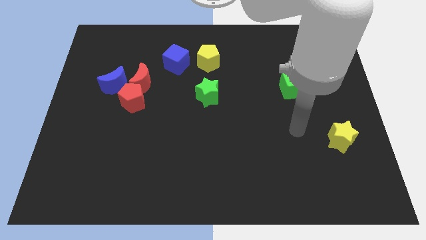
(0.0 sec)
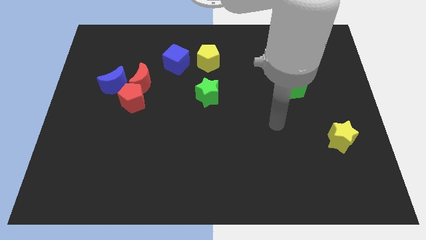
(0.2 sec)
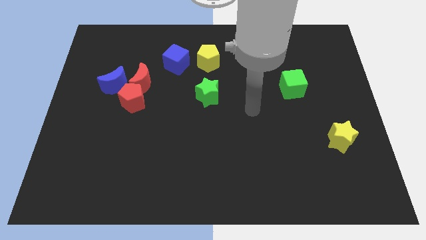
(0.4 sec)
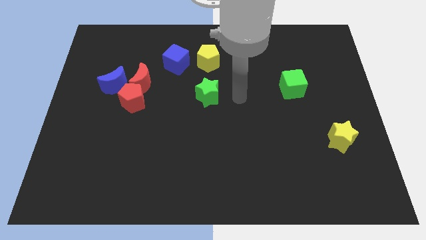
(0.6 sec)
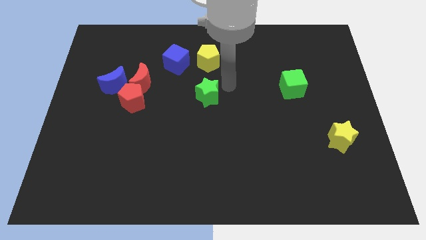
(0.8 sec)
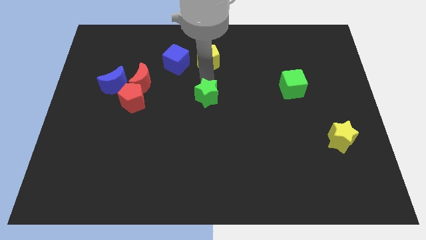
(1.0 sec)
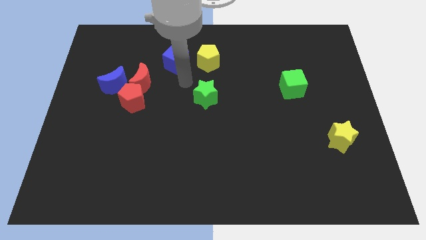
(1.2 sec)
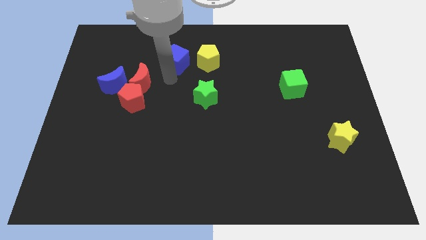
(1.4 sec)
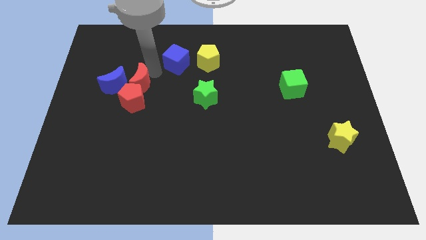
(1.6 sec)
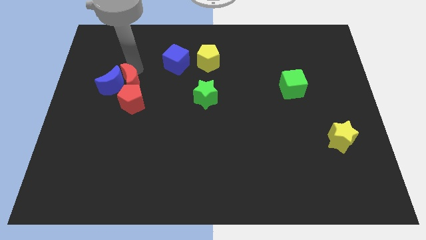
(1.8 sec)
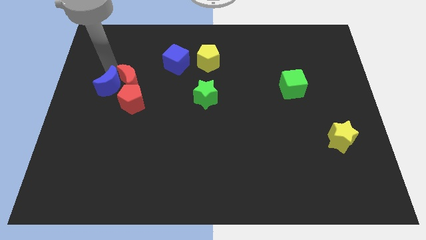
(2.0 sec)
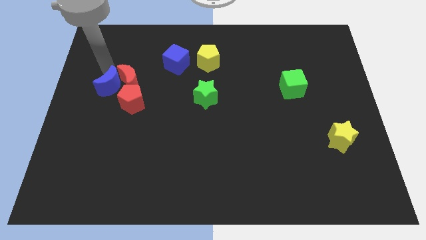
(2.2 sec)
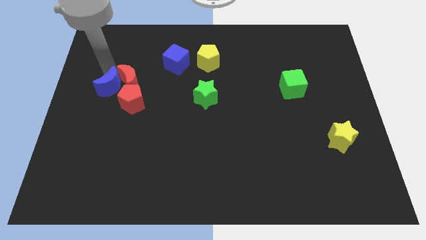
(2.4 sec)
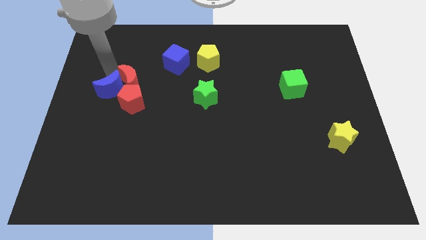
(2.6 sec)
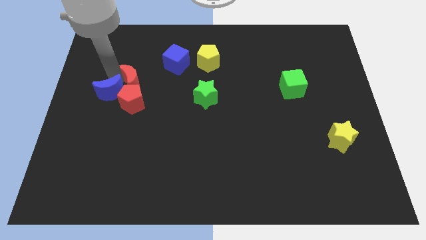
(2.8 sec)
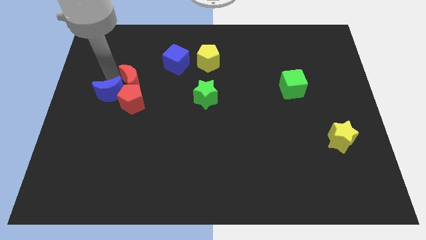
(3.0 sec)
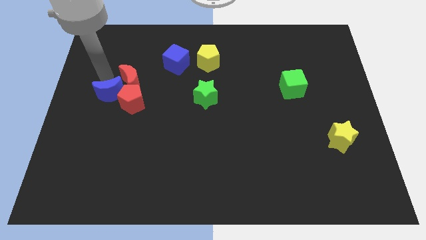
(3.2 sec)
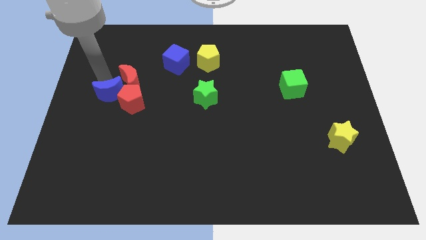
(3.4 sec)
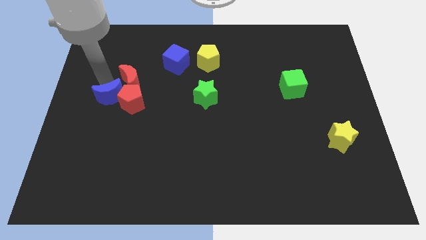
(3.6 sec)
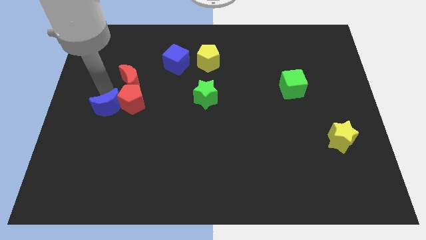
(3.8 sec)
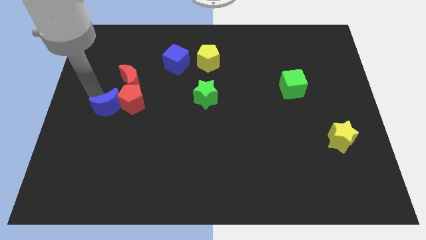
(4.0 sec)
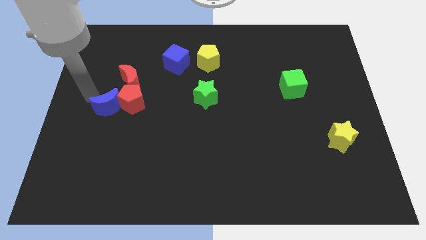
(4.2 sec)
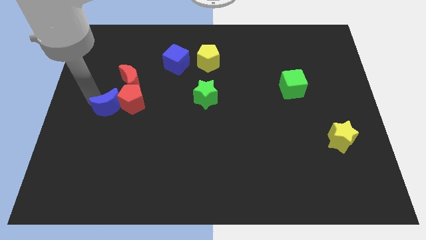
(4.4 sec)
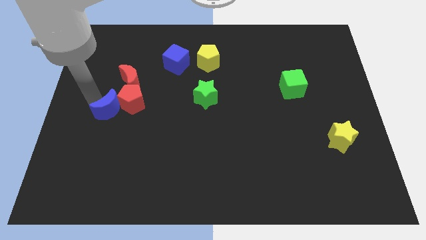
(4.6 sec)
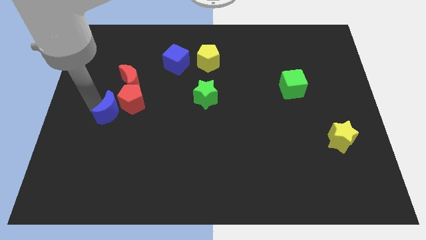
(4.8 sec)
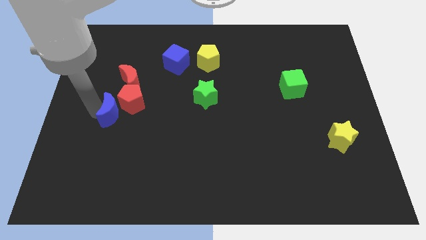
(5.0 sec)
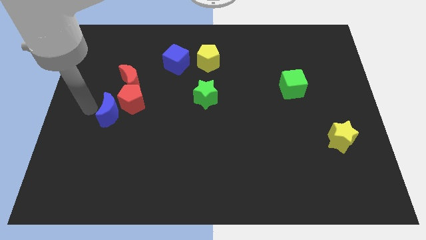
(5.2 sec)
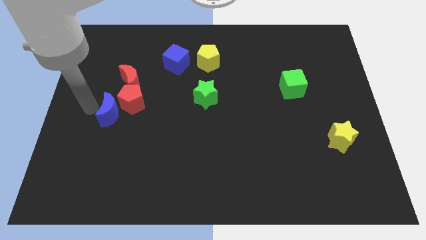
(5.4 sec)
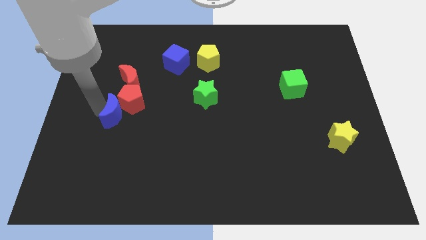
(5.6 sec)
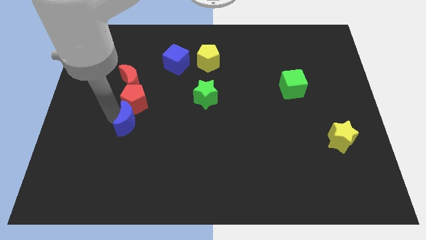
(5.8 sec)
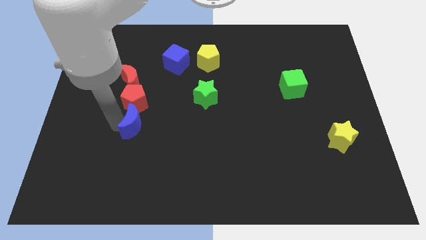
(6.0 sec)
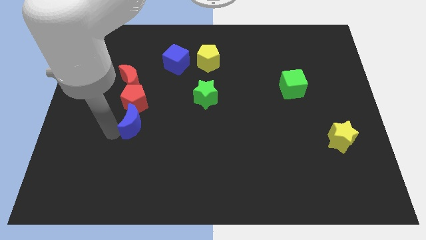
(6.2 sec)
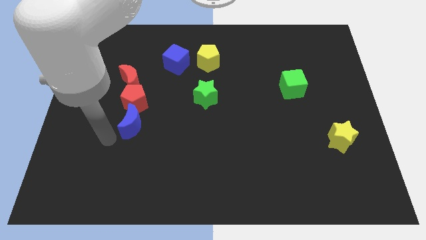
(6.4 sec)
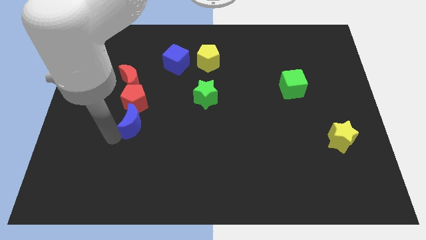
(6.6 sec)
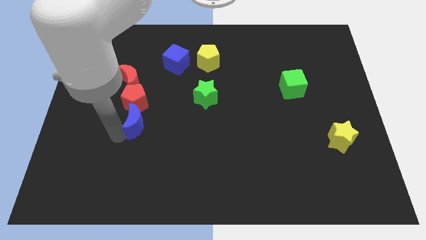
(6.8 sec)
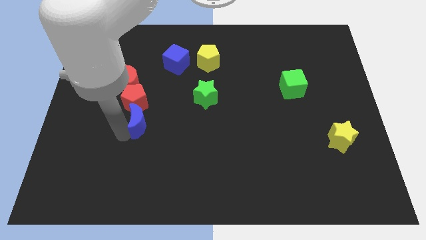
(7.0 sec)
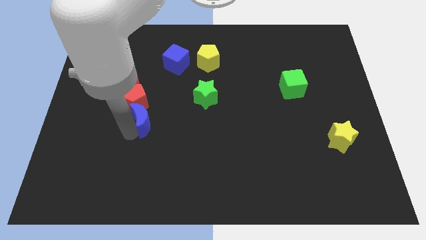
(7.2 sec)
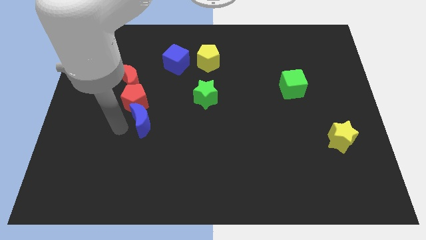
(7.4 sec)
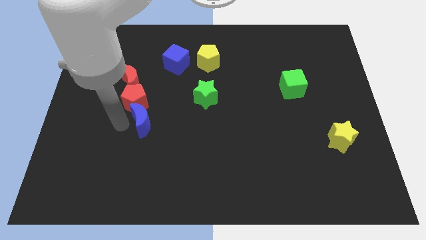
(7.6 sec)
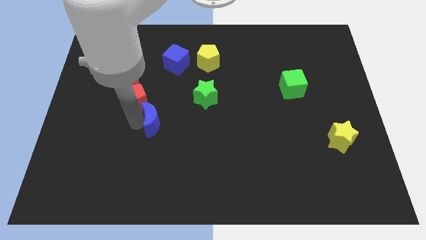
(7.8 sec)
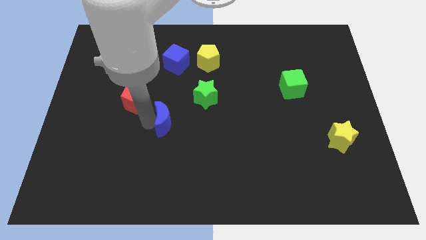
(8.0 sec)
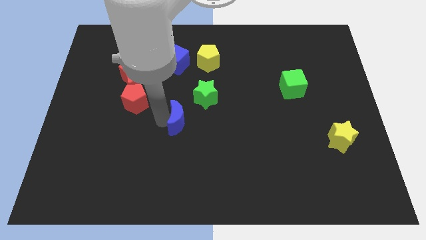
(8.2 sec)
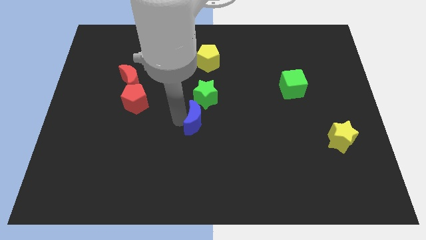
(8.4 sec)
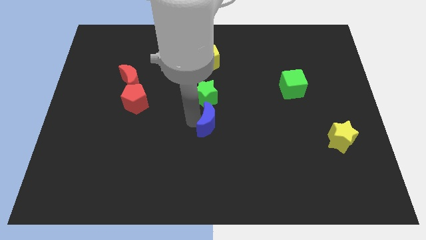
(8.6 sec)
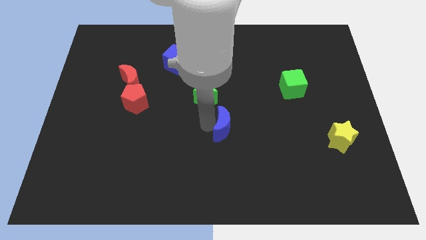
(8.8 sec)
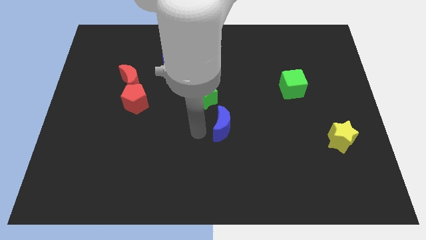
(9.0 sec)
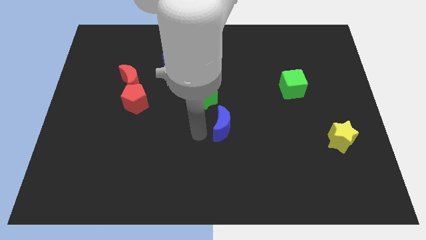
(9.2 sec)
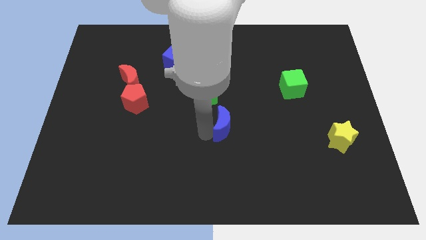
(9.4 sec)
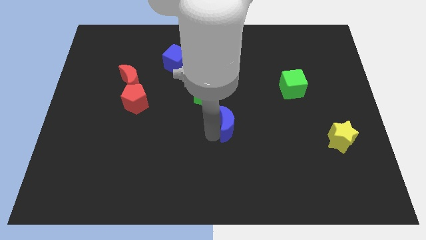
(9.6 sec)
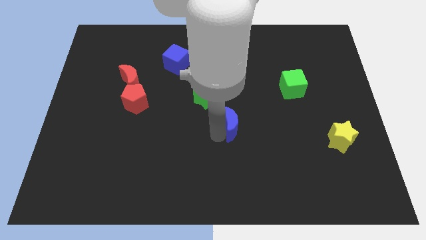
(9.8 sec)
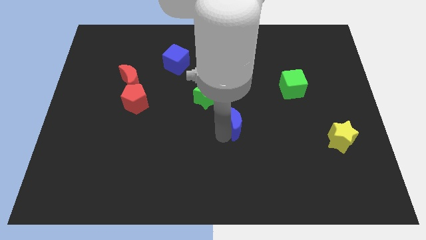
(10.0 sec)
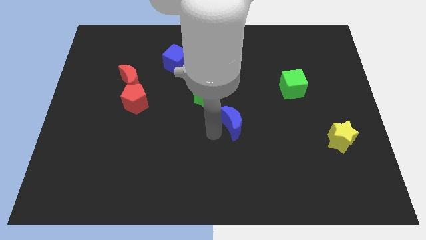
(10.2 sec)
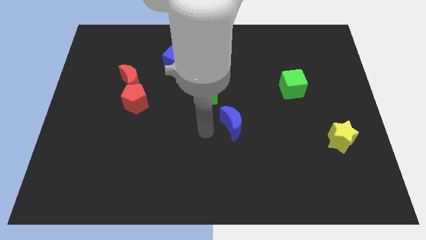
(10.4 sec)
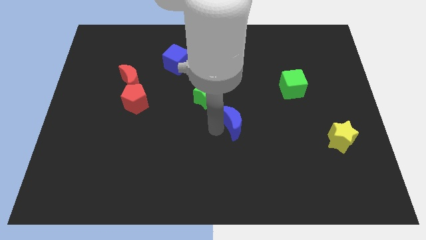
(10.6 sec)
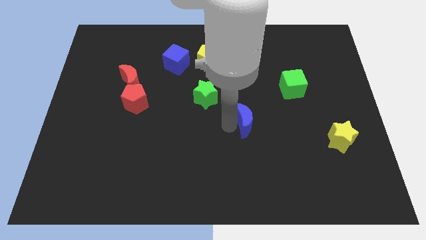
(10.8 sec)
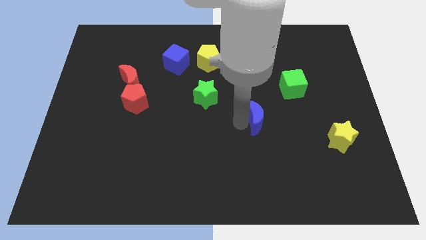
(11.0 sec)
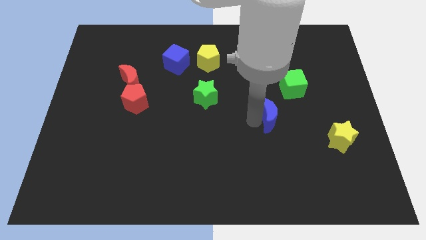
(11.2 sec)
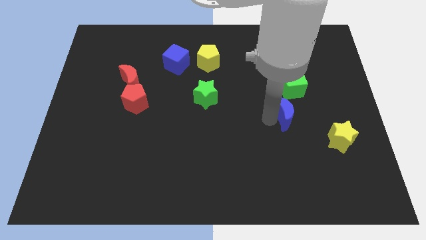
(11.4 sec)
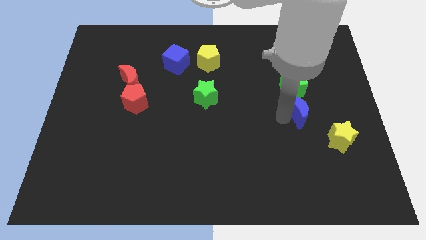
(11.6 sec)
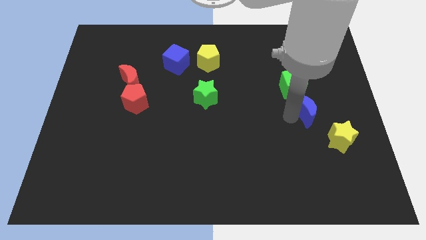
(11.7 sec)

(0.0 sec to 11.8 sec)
put the blue moon diagonally down and to the right of the green cube

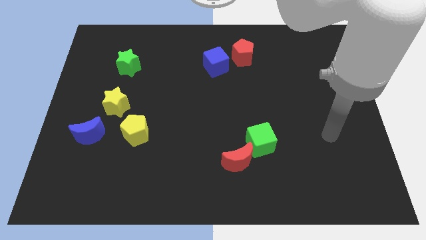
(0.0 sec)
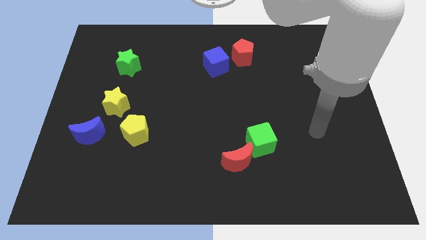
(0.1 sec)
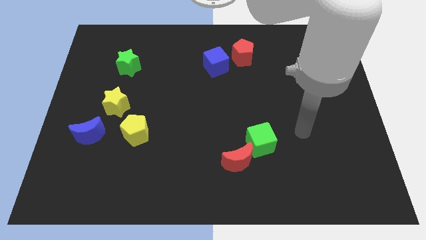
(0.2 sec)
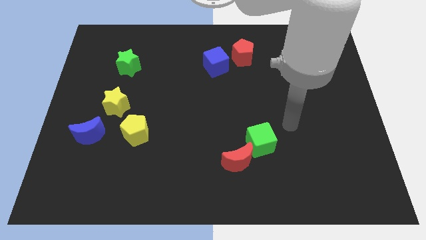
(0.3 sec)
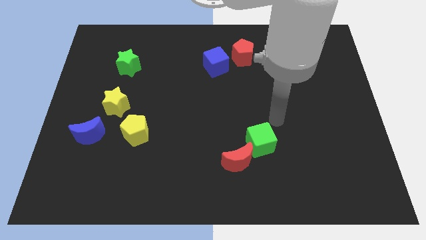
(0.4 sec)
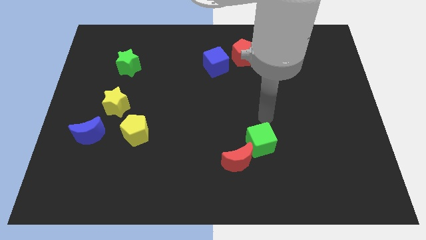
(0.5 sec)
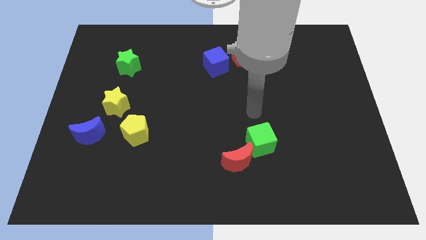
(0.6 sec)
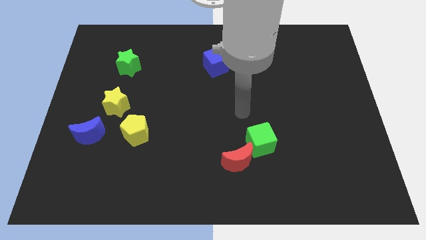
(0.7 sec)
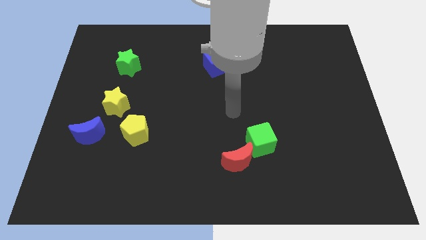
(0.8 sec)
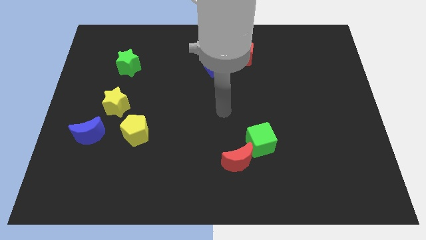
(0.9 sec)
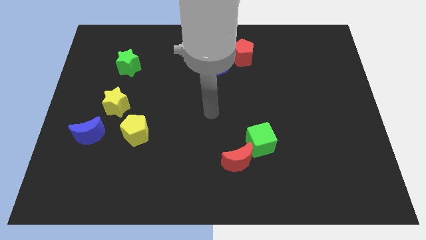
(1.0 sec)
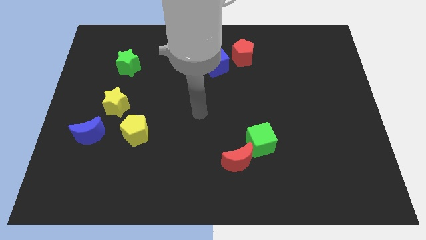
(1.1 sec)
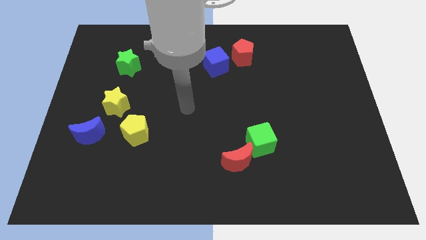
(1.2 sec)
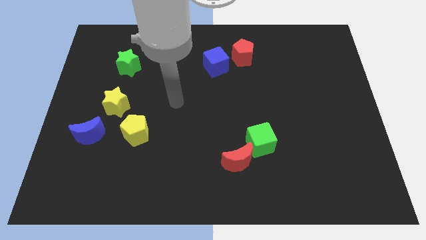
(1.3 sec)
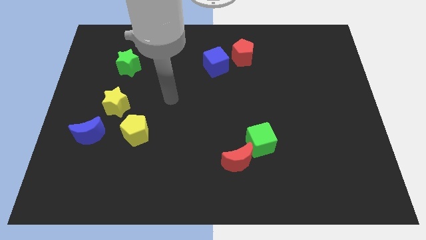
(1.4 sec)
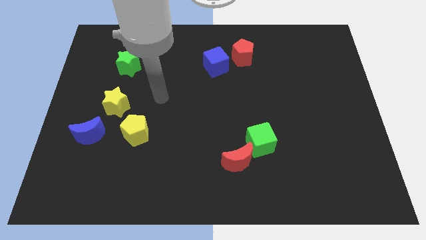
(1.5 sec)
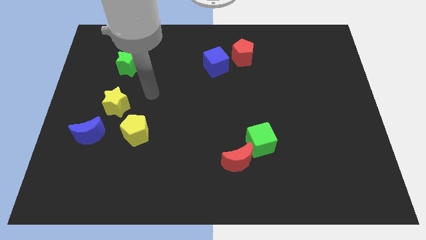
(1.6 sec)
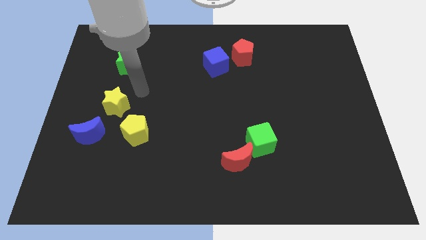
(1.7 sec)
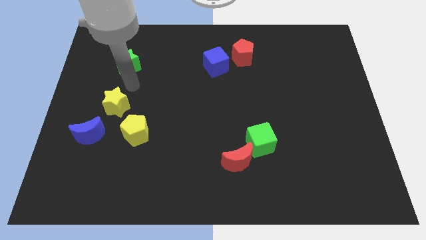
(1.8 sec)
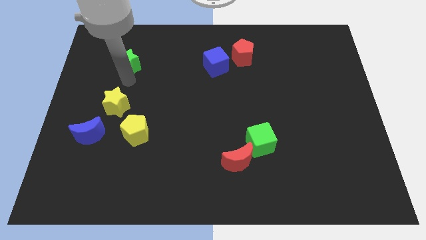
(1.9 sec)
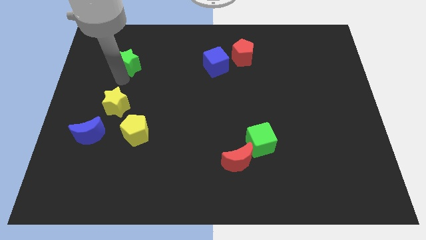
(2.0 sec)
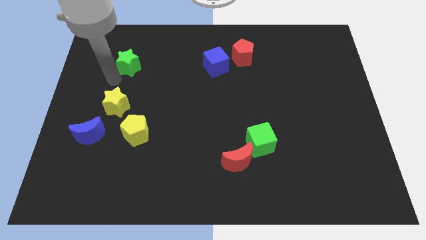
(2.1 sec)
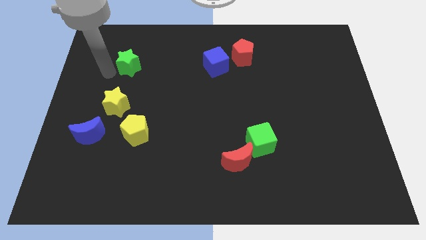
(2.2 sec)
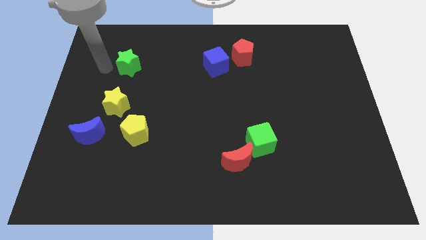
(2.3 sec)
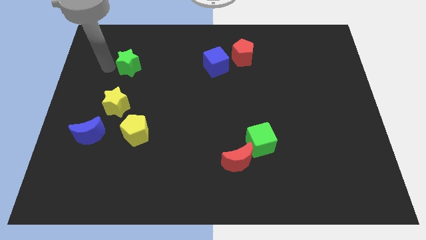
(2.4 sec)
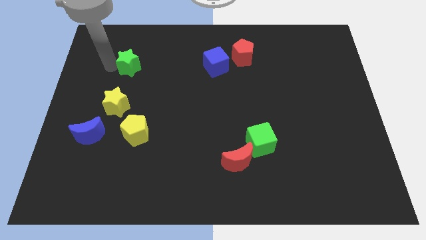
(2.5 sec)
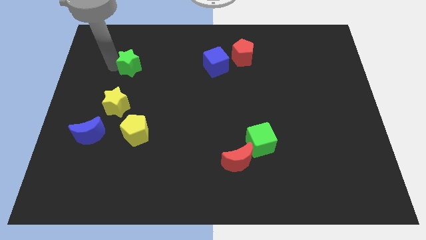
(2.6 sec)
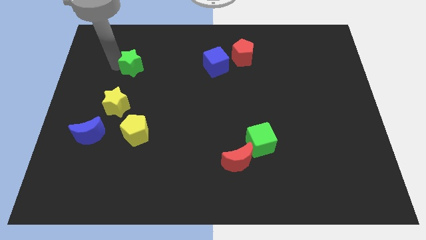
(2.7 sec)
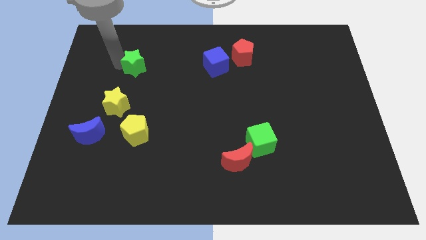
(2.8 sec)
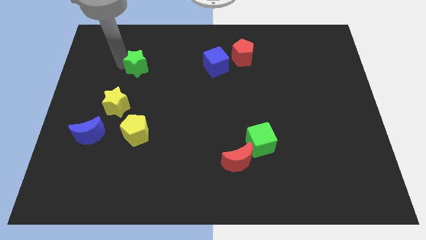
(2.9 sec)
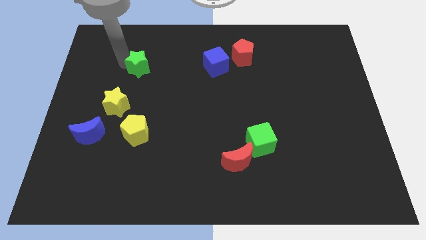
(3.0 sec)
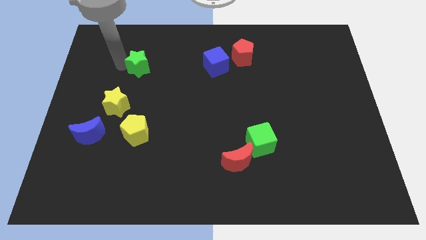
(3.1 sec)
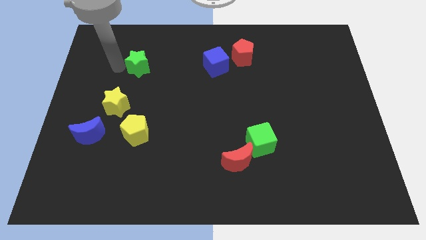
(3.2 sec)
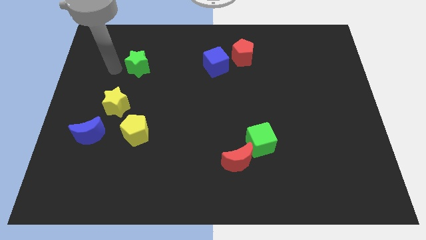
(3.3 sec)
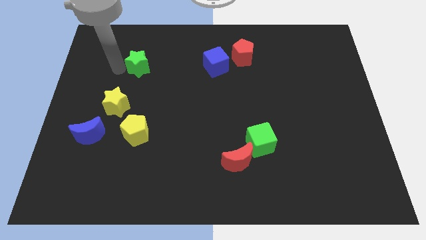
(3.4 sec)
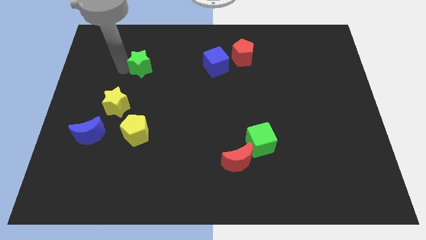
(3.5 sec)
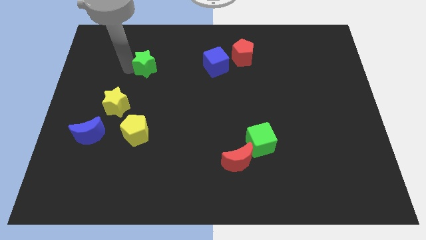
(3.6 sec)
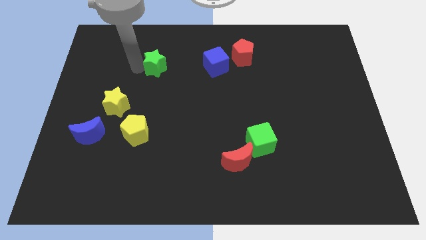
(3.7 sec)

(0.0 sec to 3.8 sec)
move the green star left of the blue cube
